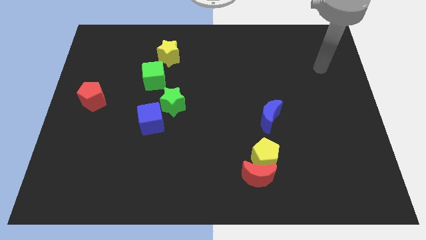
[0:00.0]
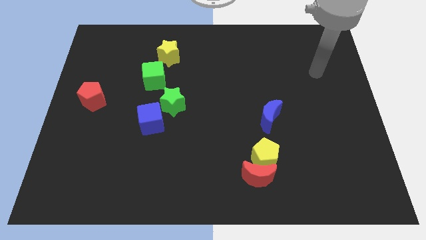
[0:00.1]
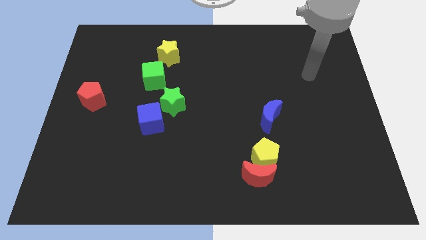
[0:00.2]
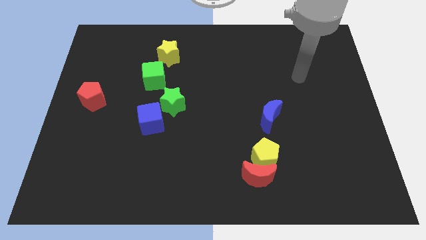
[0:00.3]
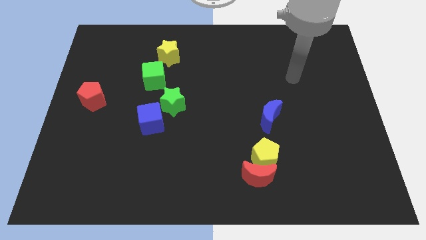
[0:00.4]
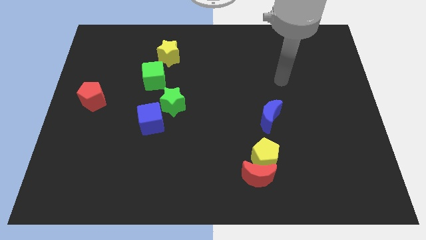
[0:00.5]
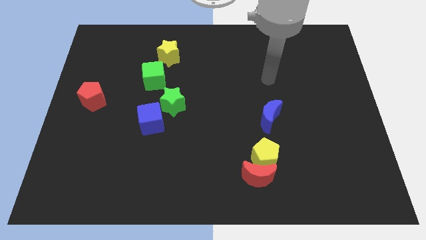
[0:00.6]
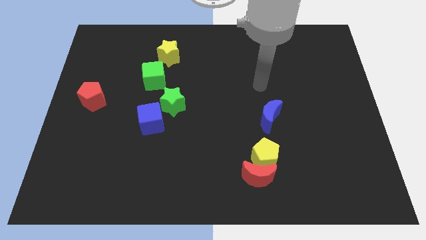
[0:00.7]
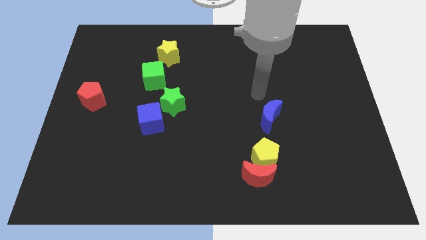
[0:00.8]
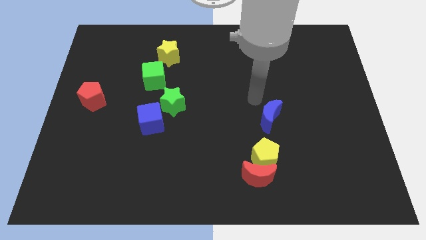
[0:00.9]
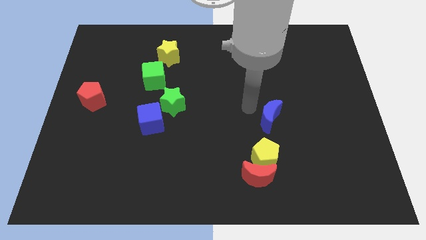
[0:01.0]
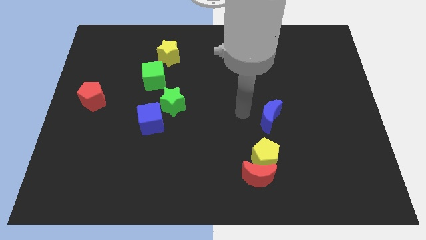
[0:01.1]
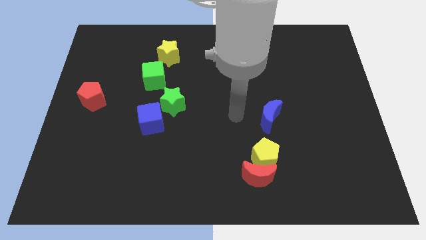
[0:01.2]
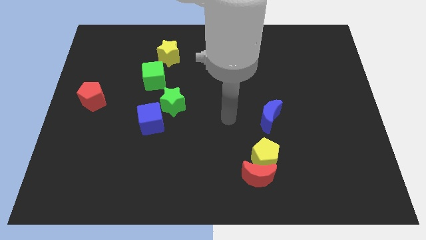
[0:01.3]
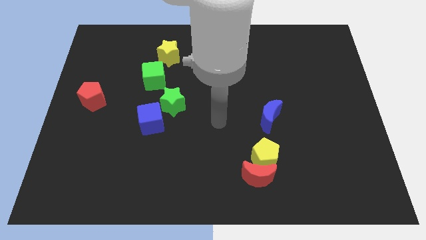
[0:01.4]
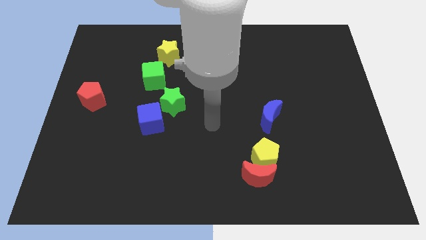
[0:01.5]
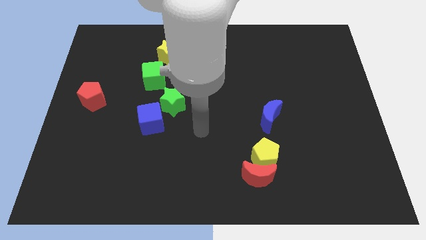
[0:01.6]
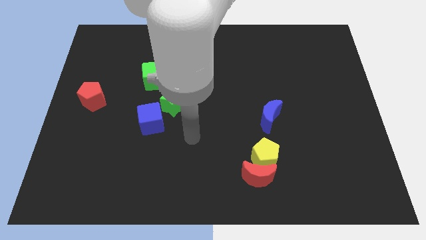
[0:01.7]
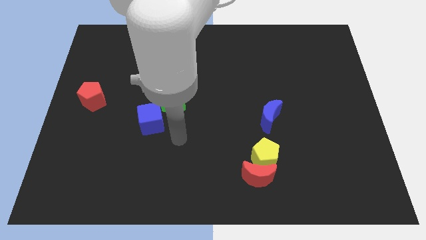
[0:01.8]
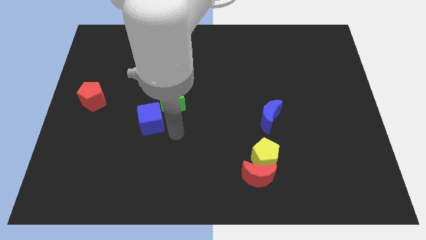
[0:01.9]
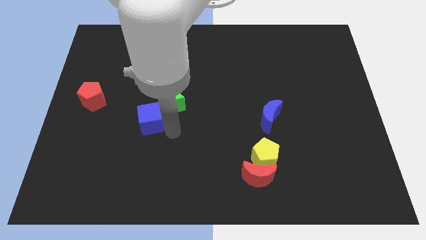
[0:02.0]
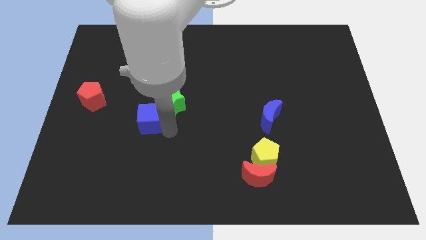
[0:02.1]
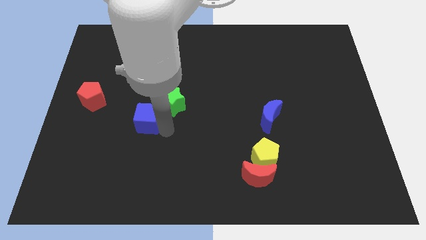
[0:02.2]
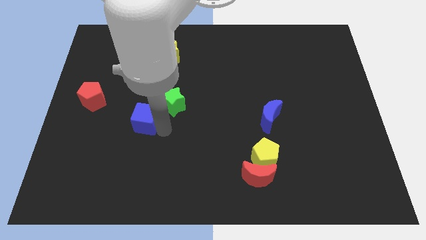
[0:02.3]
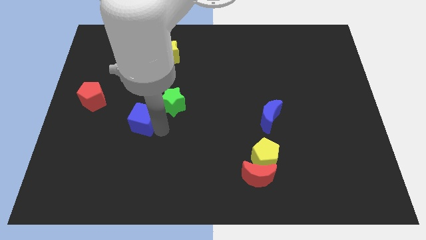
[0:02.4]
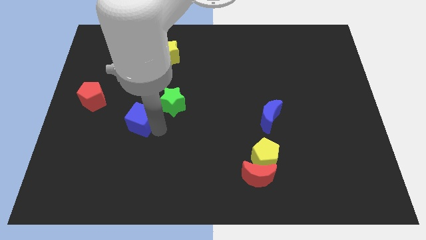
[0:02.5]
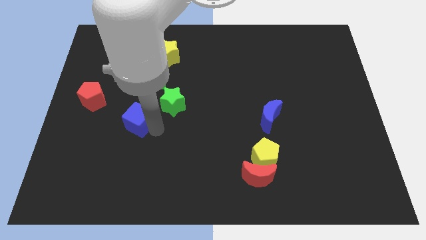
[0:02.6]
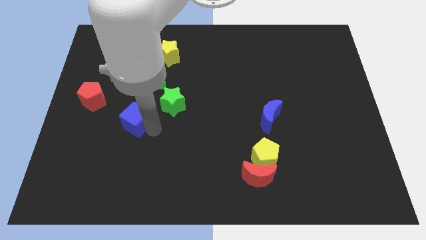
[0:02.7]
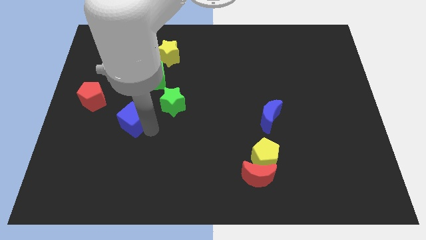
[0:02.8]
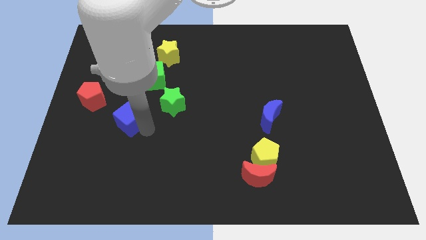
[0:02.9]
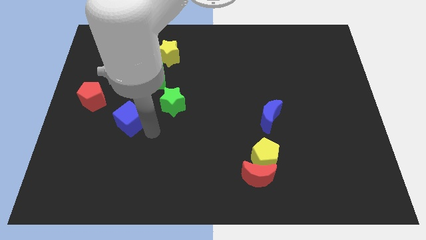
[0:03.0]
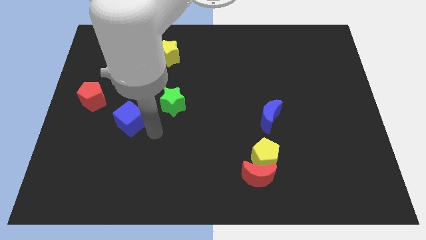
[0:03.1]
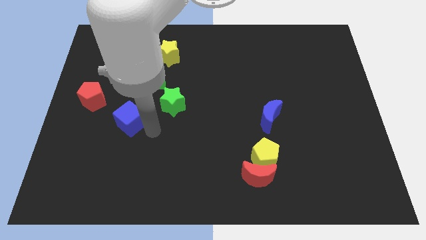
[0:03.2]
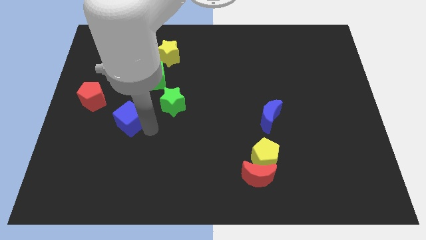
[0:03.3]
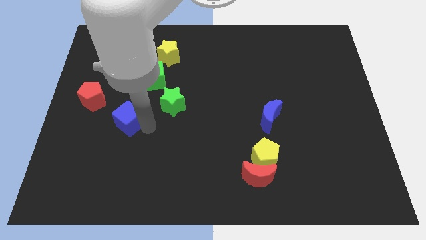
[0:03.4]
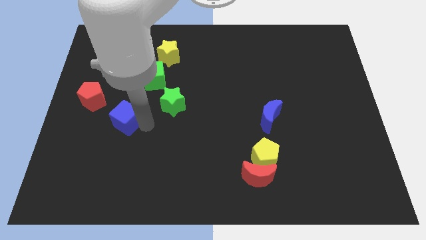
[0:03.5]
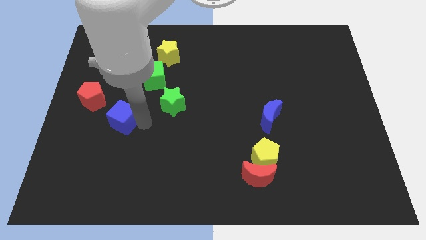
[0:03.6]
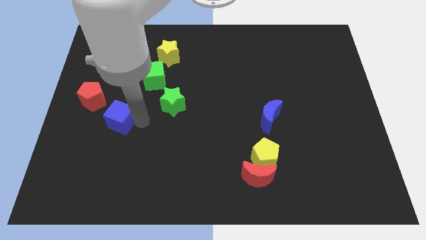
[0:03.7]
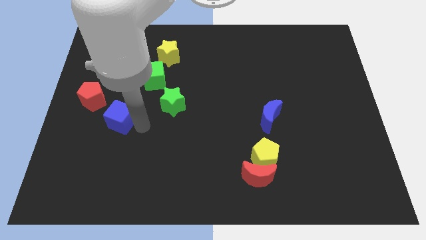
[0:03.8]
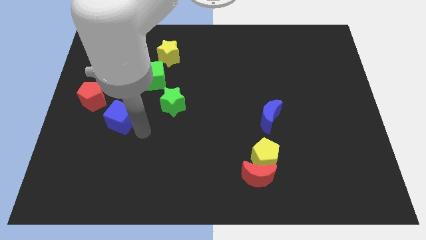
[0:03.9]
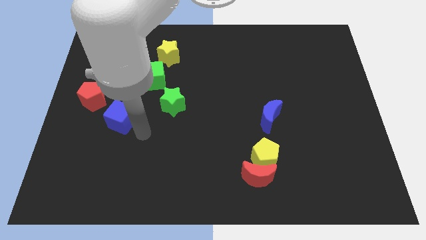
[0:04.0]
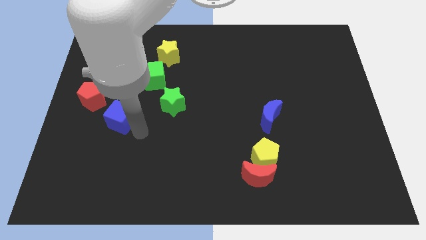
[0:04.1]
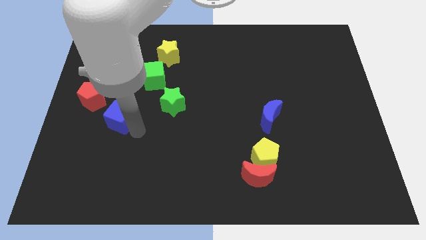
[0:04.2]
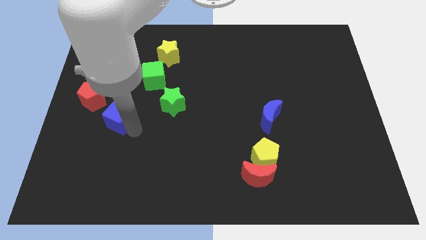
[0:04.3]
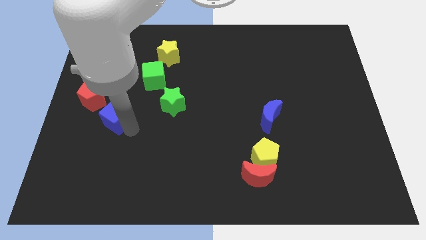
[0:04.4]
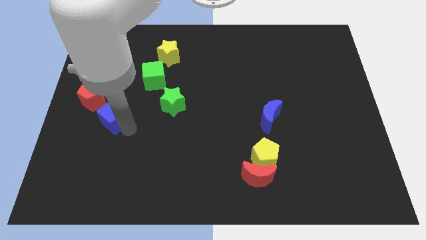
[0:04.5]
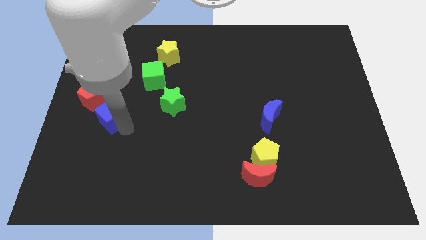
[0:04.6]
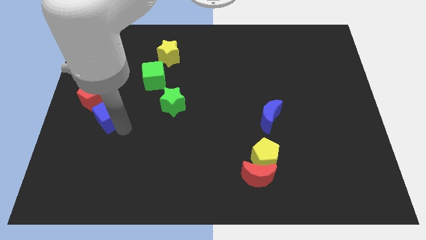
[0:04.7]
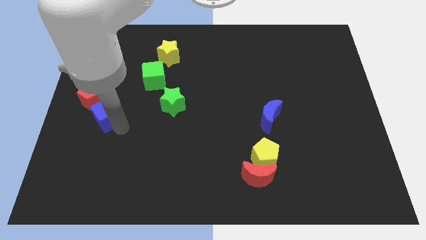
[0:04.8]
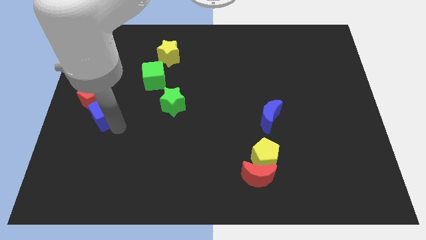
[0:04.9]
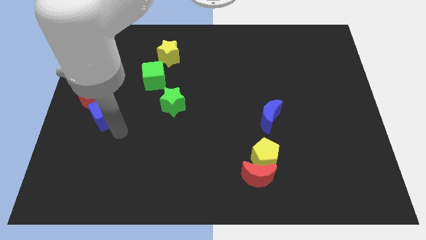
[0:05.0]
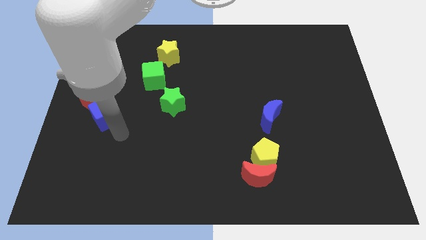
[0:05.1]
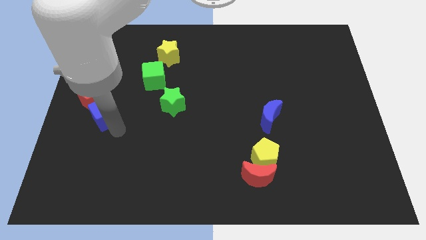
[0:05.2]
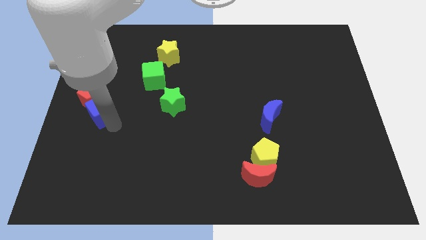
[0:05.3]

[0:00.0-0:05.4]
put the blue cube close to the red pentagon

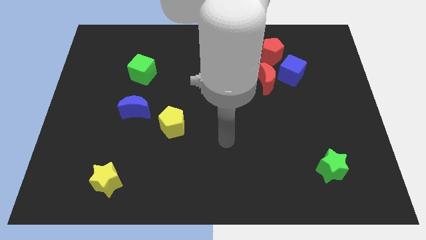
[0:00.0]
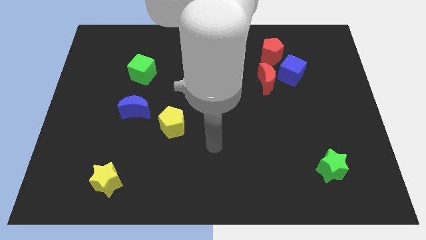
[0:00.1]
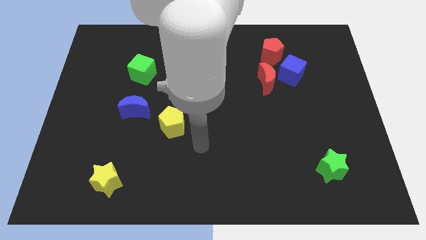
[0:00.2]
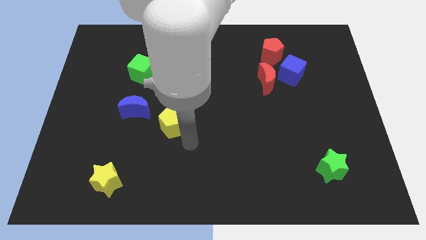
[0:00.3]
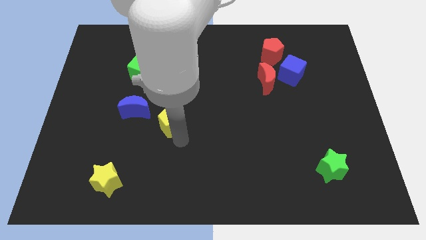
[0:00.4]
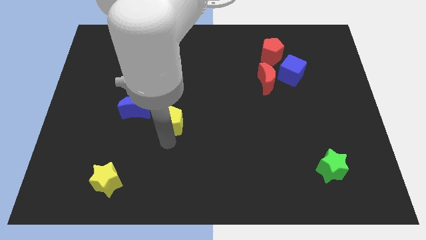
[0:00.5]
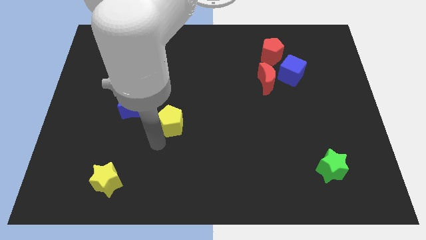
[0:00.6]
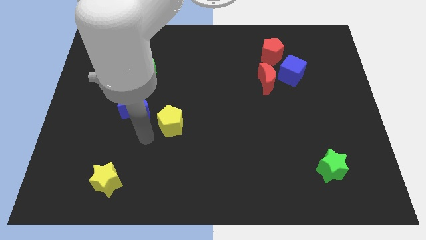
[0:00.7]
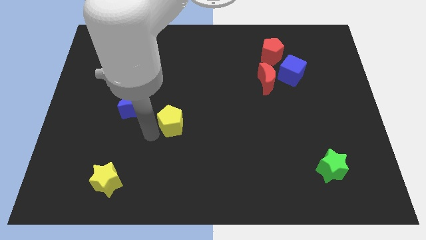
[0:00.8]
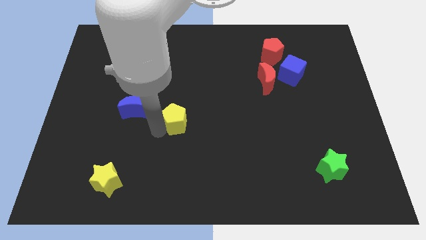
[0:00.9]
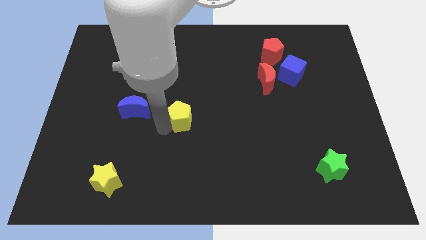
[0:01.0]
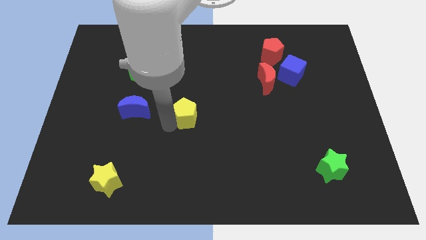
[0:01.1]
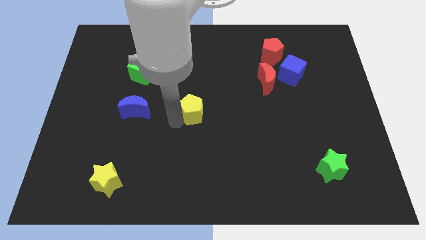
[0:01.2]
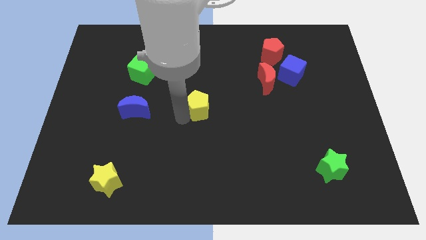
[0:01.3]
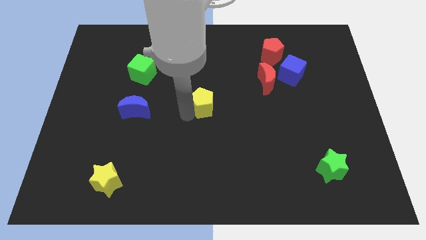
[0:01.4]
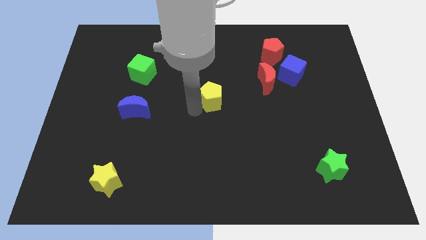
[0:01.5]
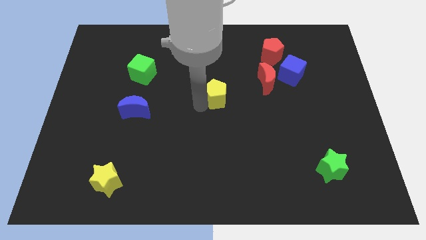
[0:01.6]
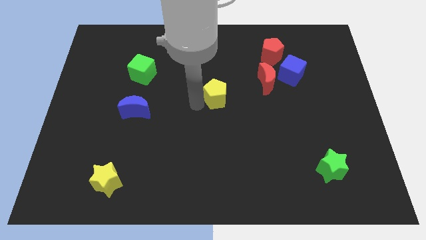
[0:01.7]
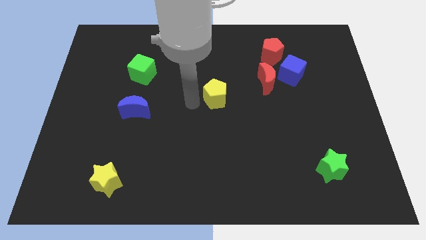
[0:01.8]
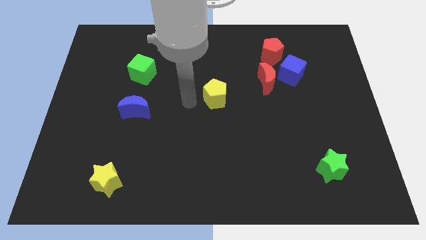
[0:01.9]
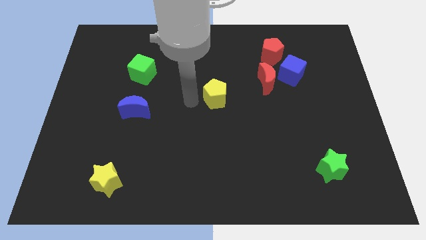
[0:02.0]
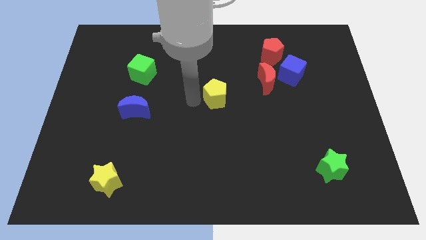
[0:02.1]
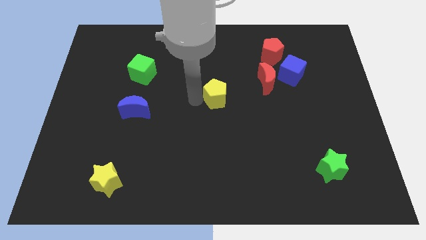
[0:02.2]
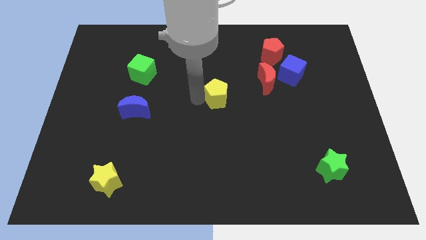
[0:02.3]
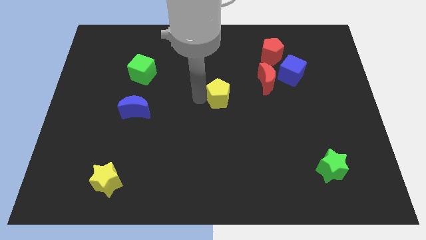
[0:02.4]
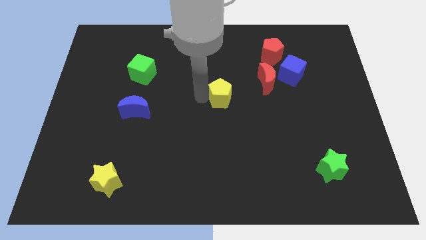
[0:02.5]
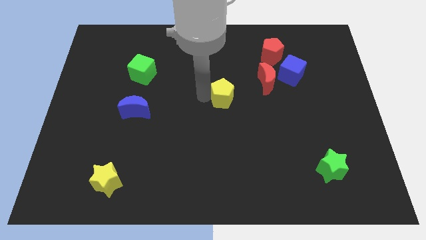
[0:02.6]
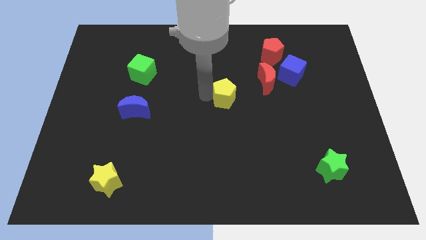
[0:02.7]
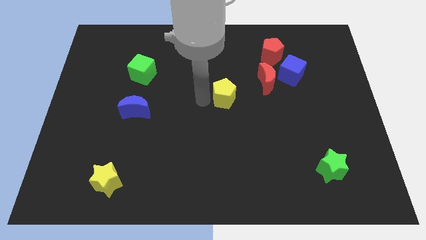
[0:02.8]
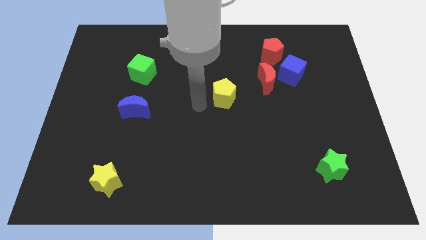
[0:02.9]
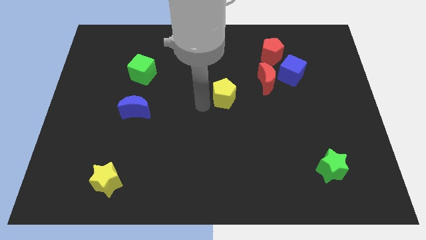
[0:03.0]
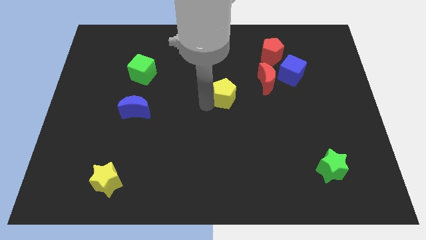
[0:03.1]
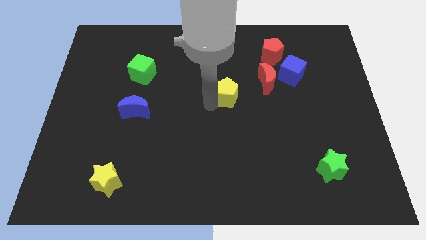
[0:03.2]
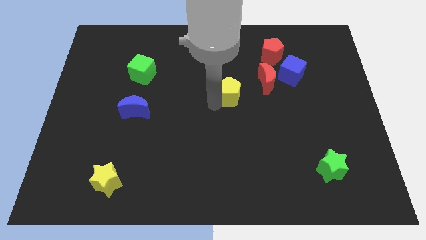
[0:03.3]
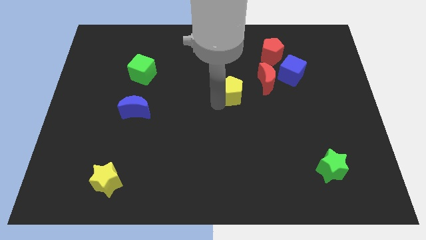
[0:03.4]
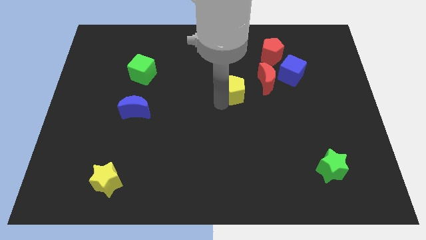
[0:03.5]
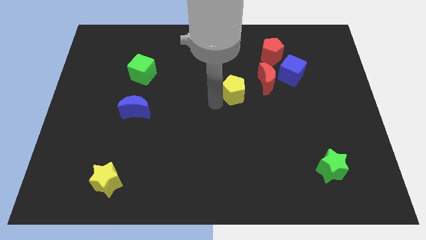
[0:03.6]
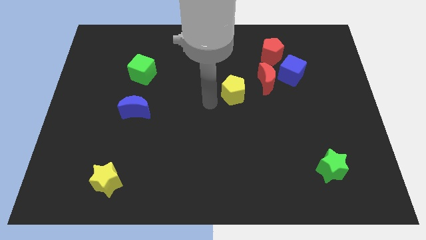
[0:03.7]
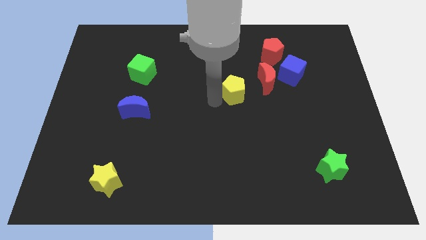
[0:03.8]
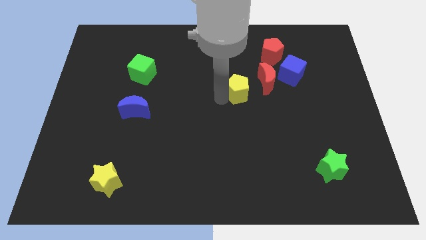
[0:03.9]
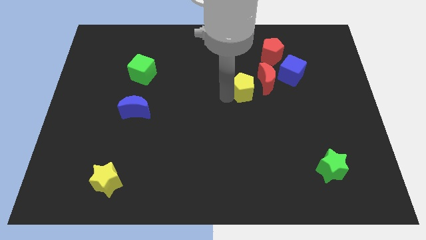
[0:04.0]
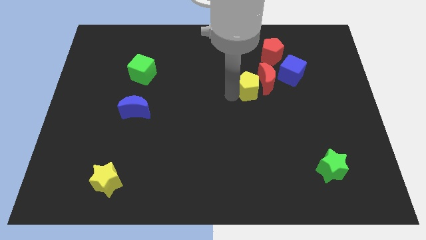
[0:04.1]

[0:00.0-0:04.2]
move the yellow pentagon towards the red moon
